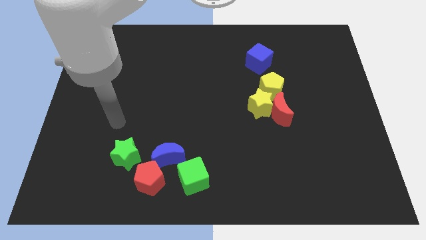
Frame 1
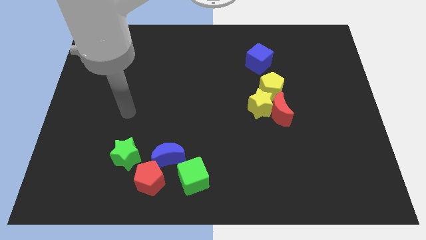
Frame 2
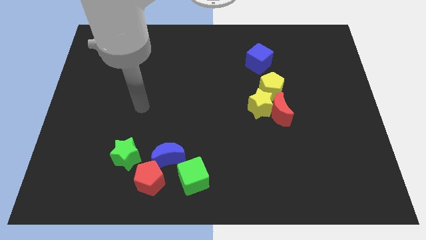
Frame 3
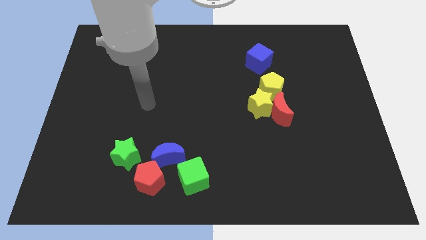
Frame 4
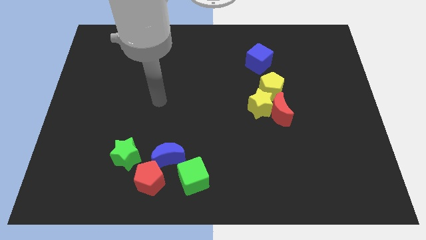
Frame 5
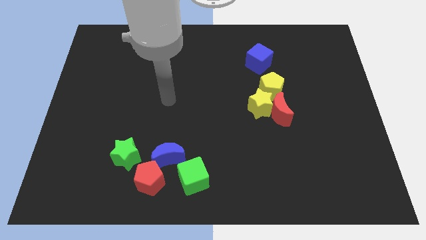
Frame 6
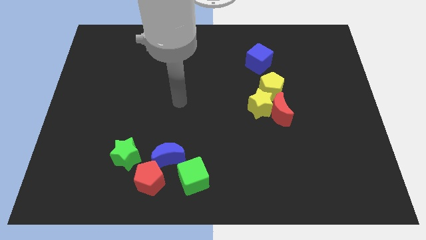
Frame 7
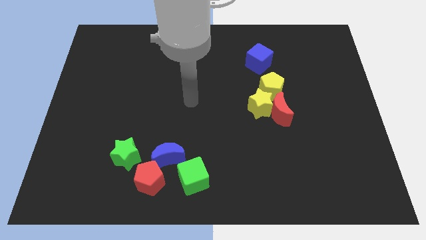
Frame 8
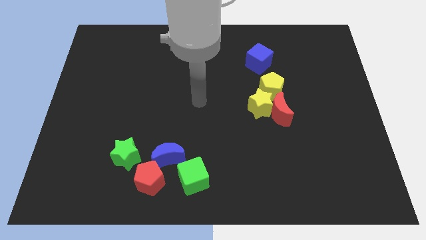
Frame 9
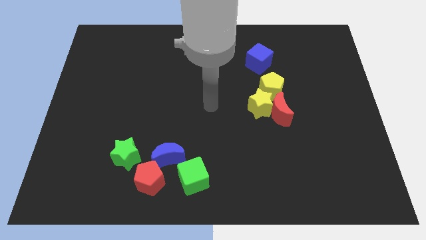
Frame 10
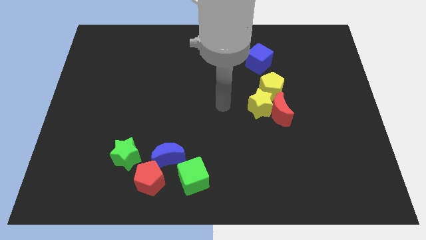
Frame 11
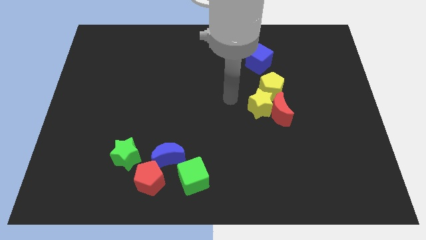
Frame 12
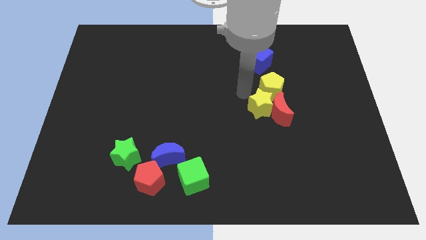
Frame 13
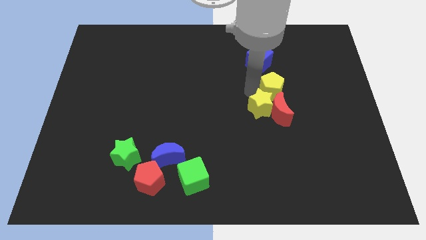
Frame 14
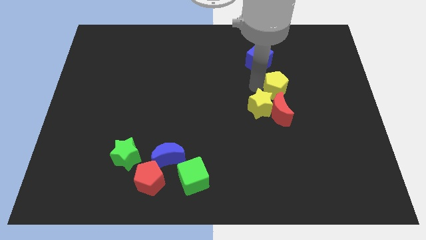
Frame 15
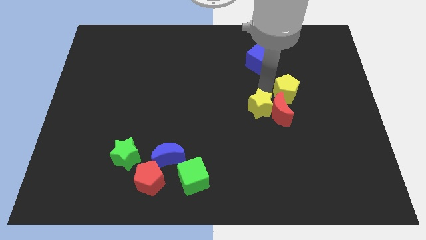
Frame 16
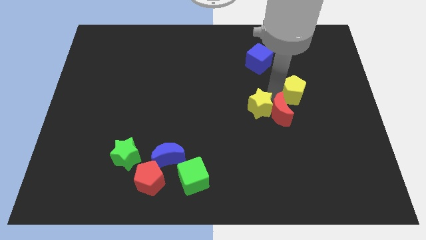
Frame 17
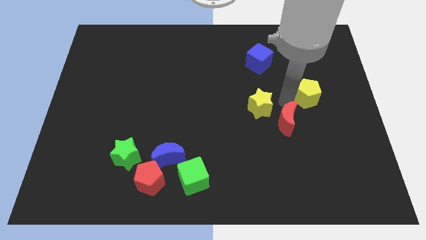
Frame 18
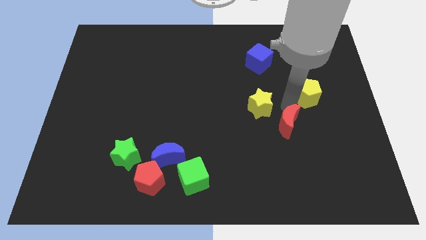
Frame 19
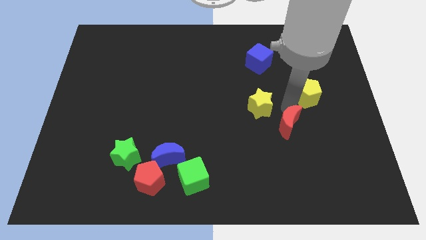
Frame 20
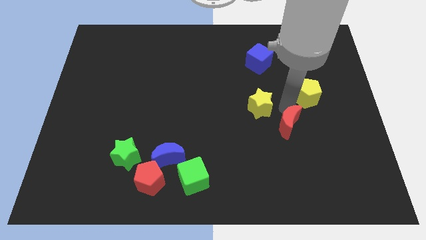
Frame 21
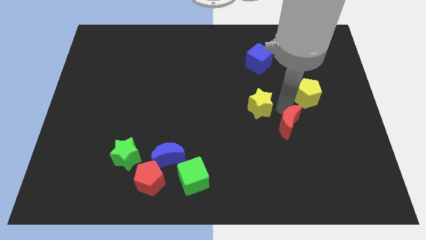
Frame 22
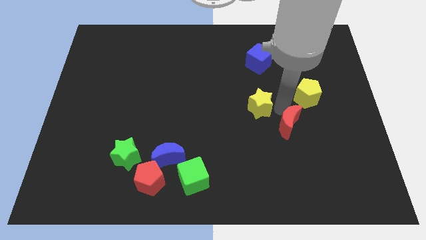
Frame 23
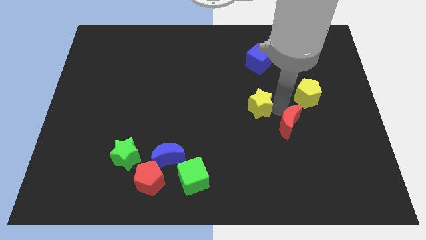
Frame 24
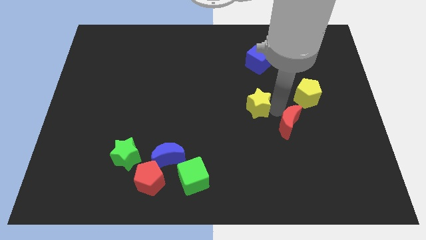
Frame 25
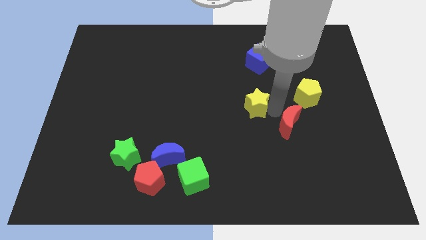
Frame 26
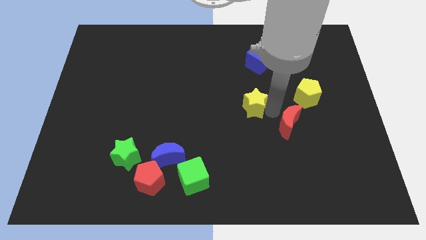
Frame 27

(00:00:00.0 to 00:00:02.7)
move the yellow star away from the red moon and yellow pentagon

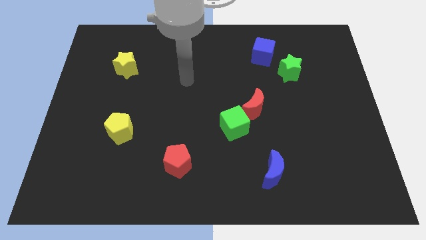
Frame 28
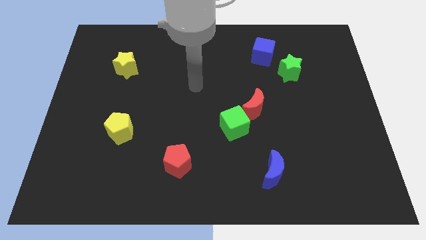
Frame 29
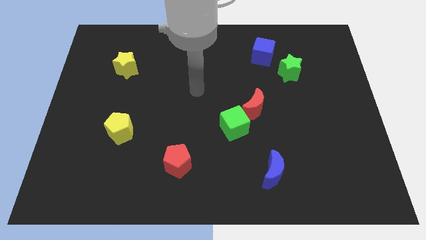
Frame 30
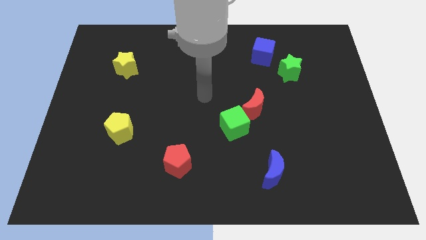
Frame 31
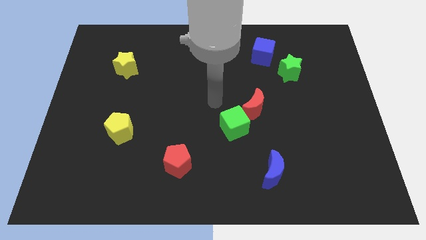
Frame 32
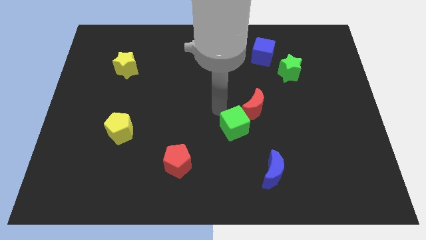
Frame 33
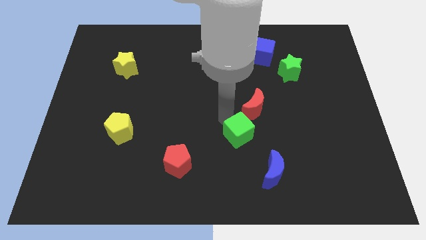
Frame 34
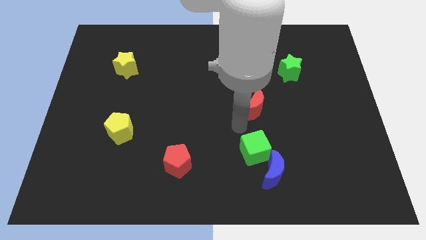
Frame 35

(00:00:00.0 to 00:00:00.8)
move the red moon away from the green cube

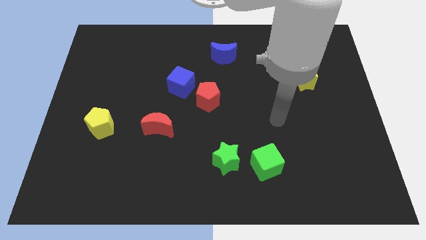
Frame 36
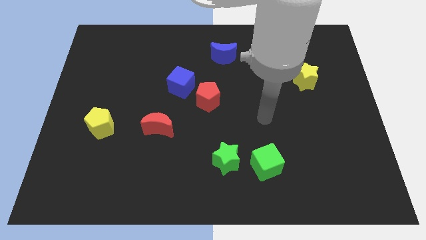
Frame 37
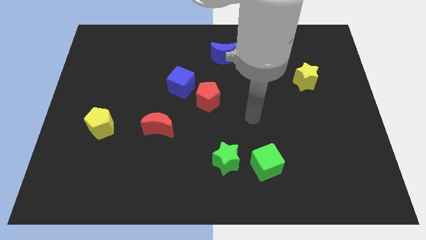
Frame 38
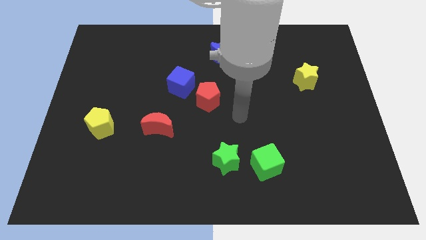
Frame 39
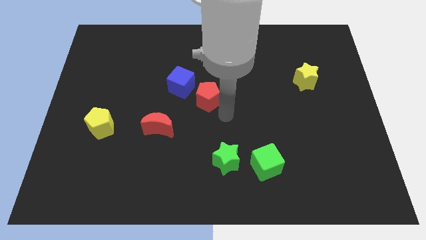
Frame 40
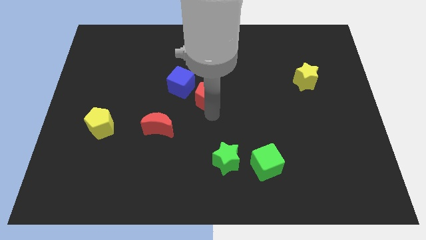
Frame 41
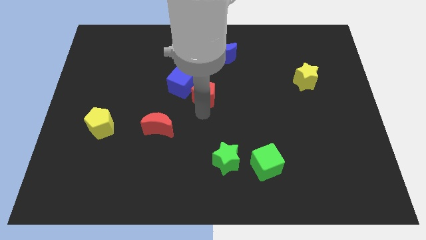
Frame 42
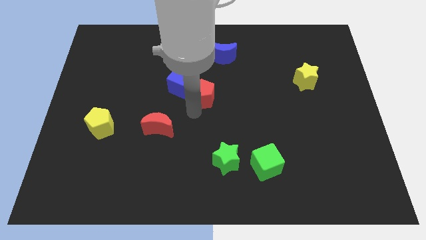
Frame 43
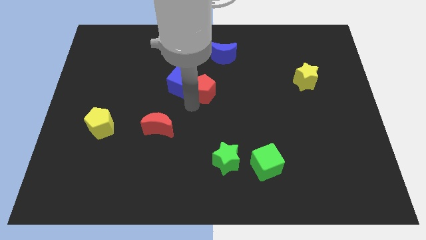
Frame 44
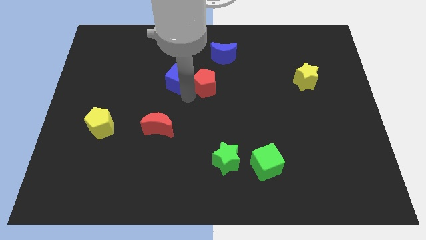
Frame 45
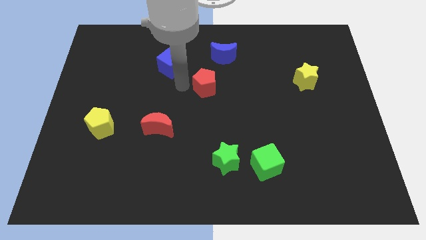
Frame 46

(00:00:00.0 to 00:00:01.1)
move the red pentagon away from the blue cube

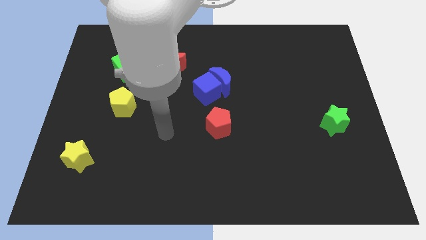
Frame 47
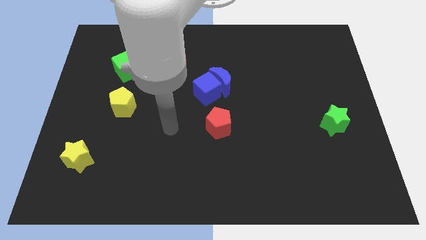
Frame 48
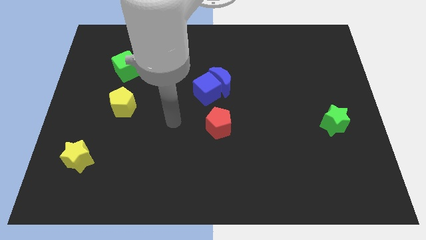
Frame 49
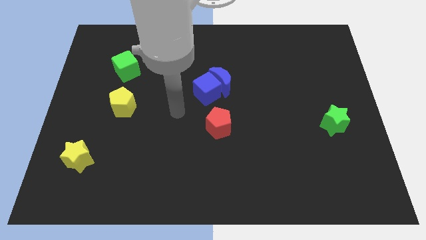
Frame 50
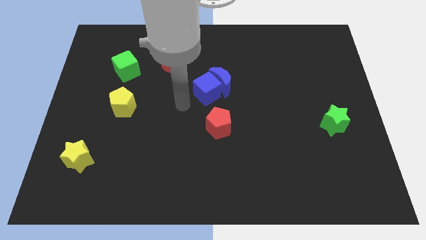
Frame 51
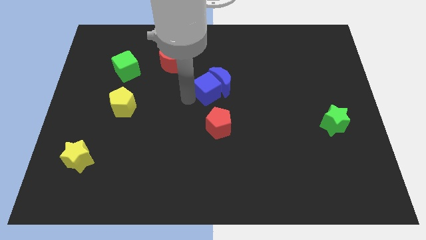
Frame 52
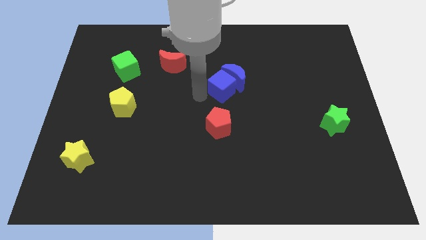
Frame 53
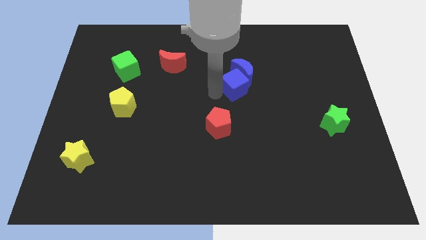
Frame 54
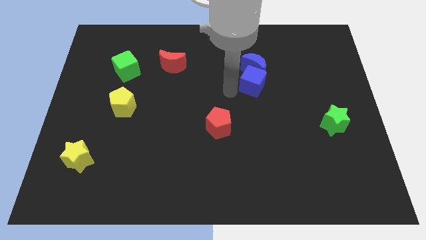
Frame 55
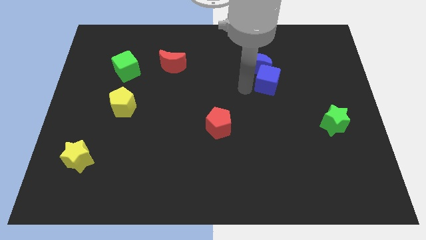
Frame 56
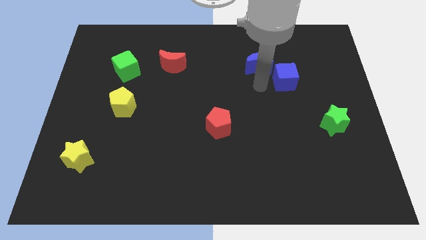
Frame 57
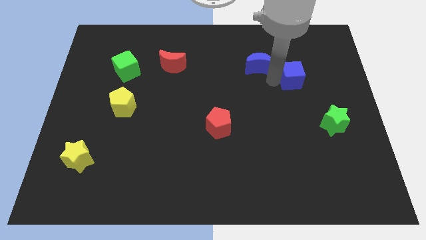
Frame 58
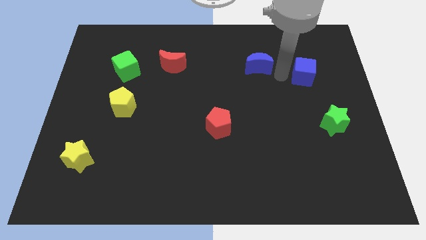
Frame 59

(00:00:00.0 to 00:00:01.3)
separate the blue moon from the blue cube

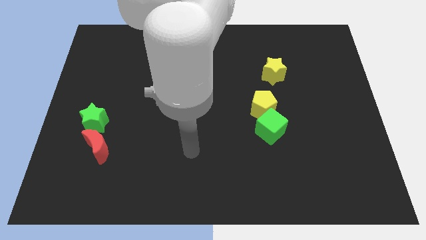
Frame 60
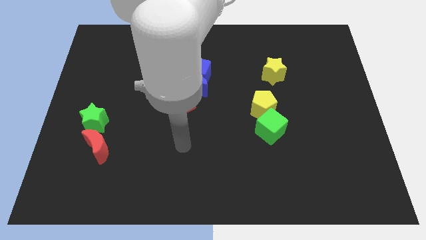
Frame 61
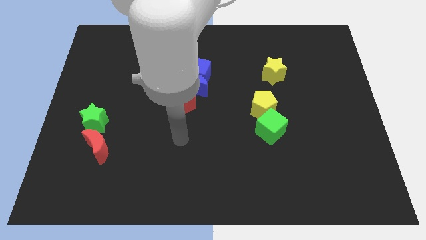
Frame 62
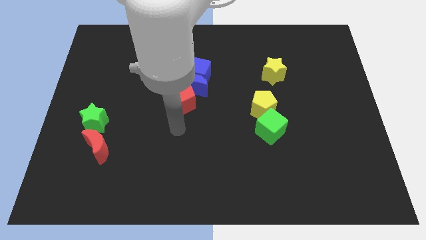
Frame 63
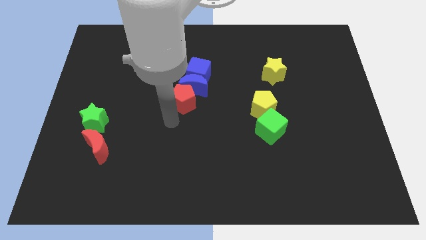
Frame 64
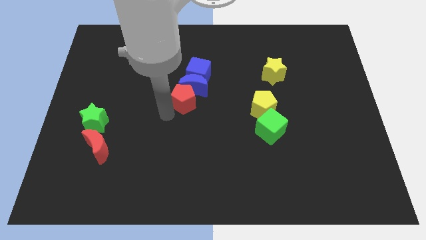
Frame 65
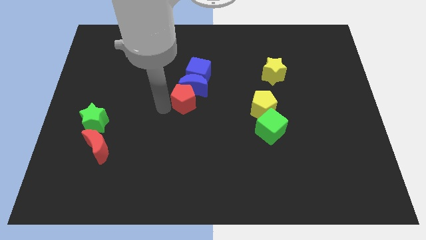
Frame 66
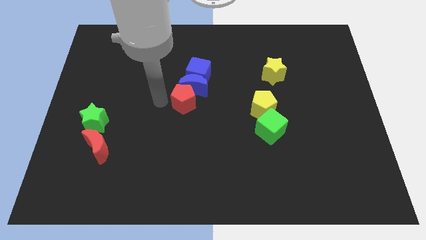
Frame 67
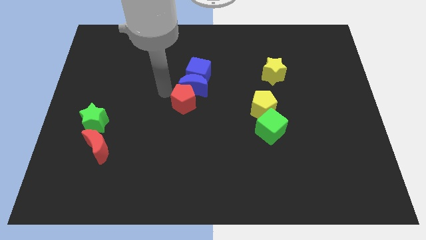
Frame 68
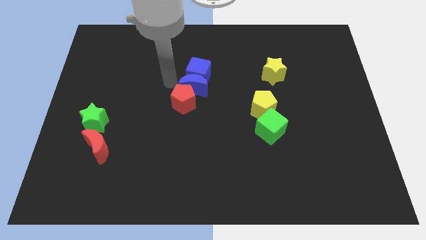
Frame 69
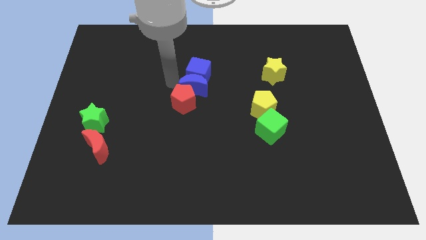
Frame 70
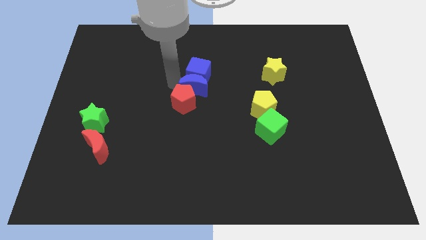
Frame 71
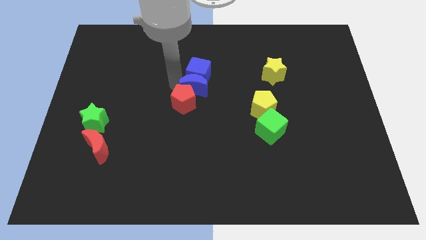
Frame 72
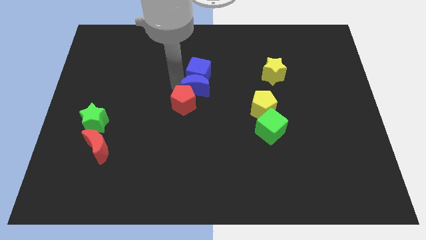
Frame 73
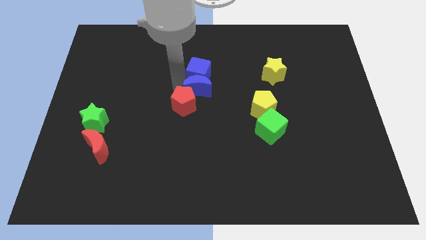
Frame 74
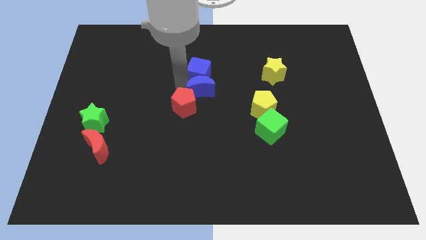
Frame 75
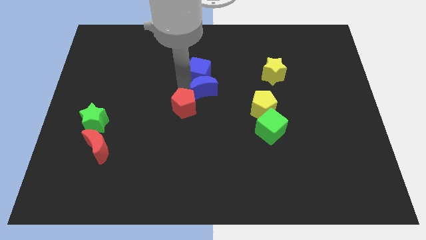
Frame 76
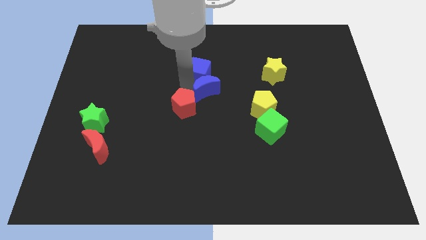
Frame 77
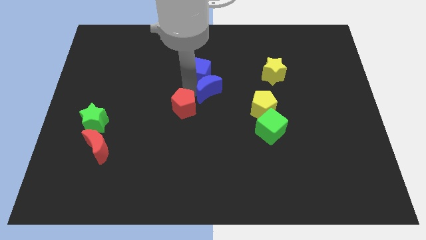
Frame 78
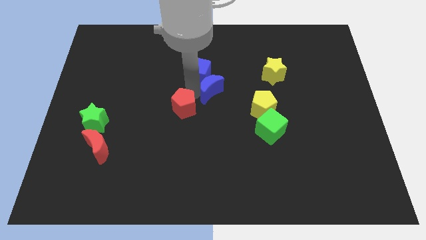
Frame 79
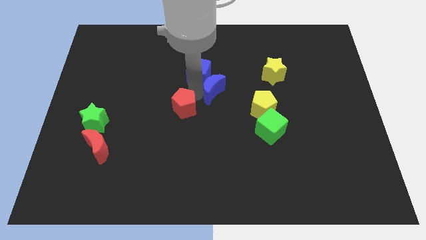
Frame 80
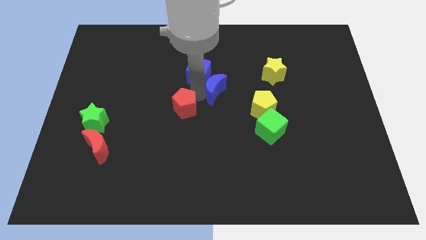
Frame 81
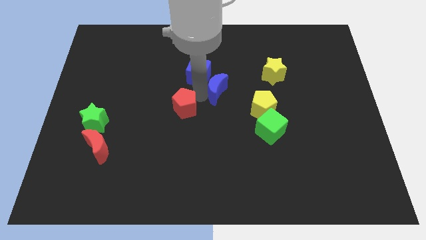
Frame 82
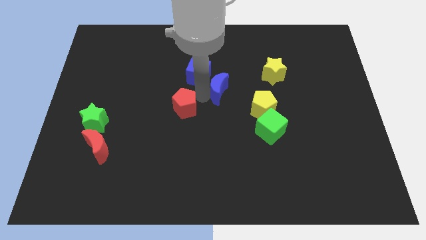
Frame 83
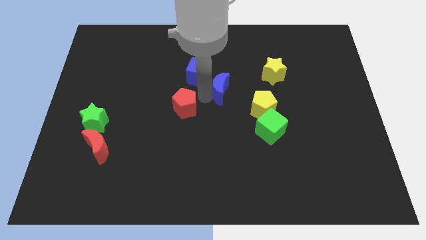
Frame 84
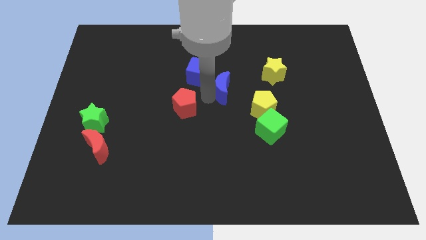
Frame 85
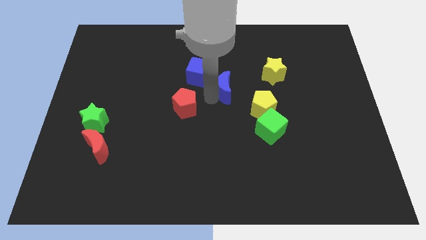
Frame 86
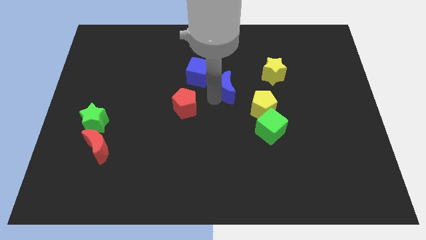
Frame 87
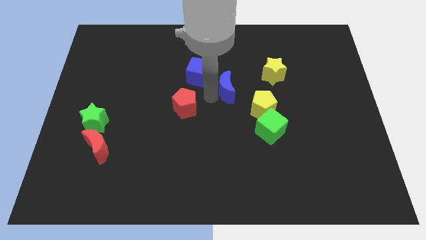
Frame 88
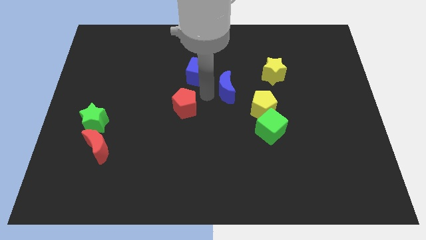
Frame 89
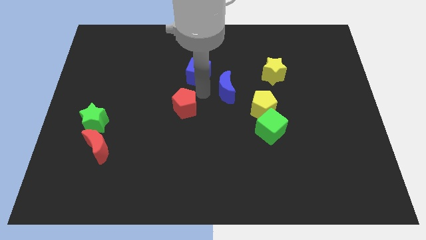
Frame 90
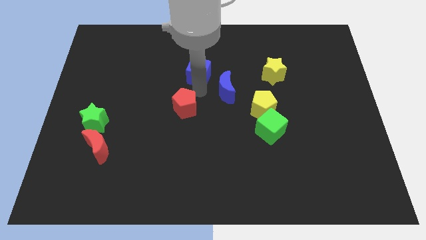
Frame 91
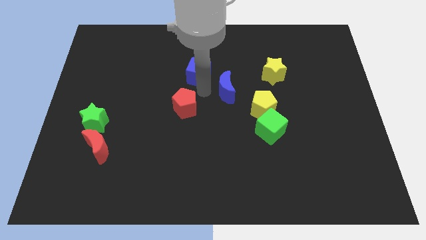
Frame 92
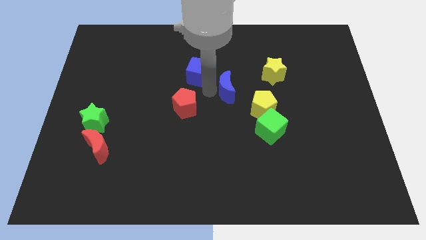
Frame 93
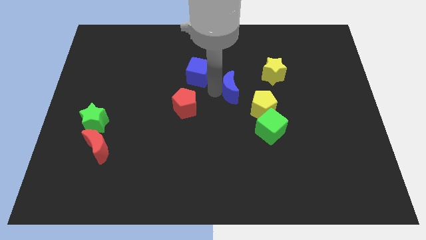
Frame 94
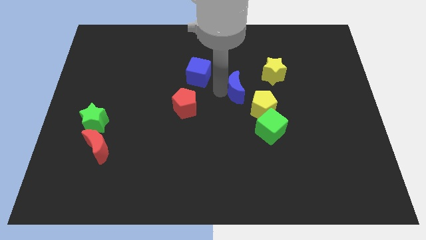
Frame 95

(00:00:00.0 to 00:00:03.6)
pull the blue moon apart from the blue cube and red pentagon
